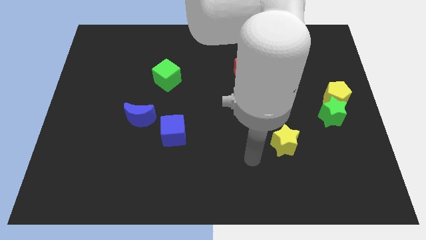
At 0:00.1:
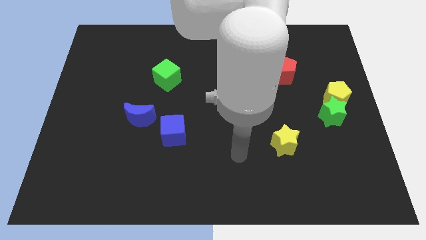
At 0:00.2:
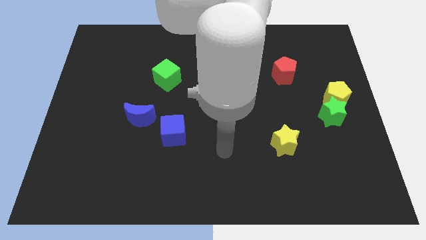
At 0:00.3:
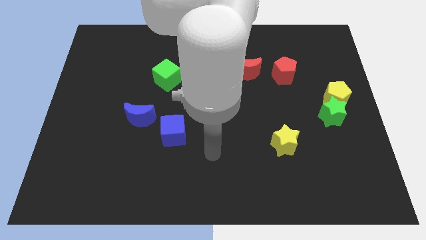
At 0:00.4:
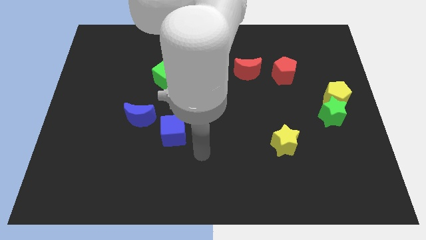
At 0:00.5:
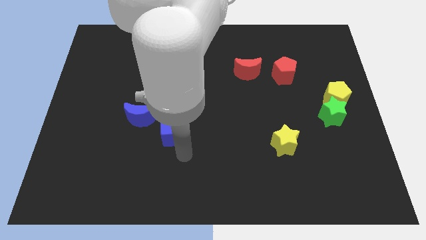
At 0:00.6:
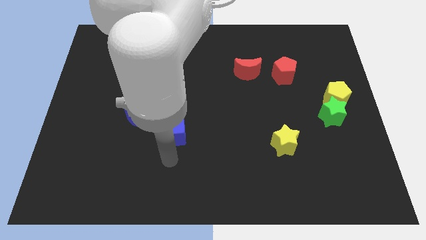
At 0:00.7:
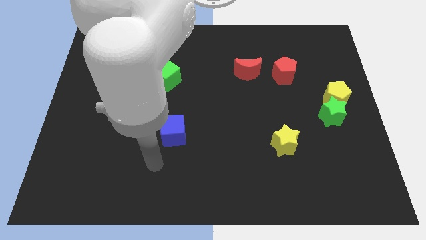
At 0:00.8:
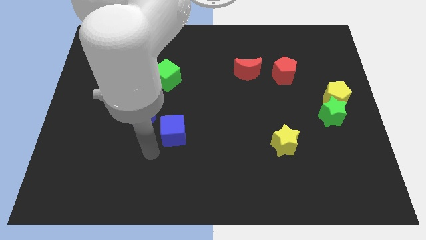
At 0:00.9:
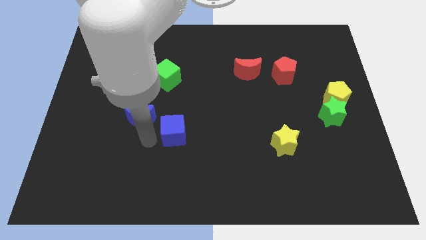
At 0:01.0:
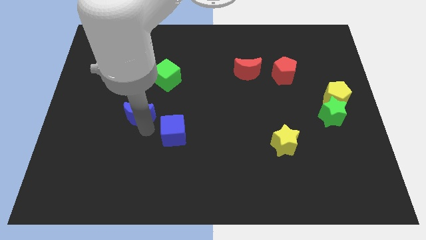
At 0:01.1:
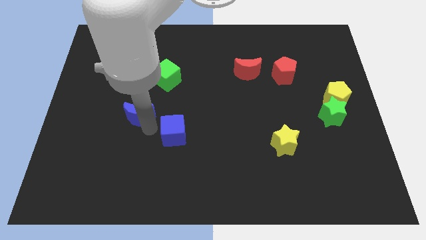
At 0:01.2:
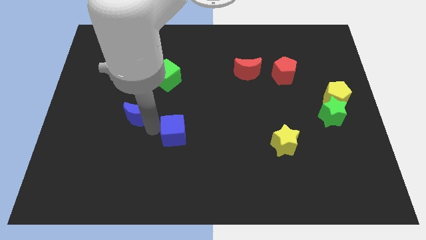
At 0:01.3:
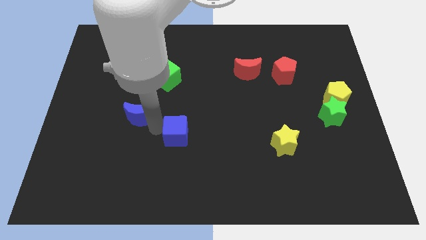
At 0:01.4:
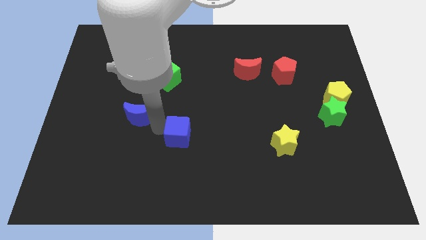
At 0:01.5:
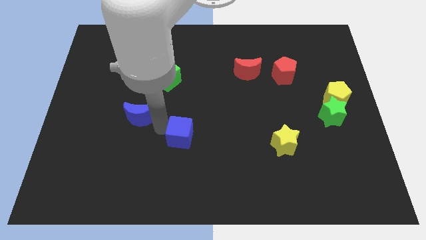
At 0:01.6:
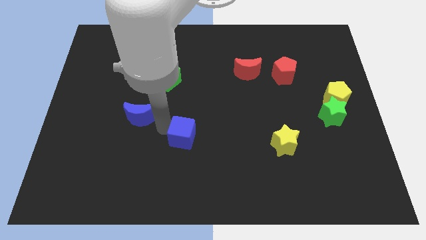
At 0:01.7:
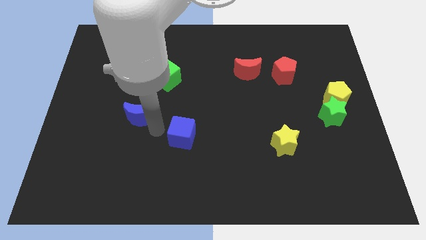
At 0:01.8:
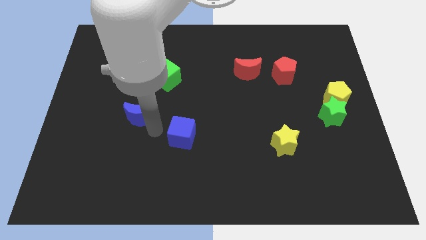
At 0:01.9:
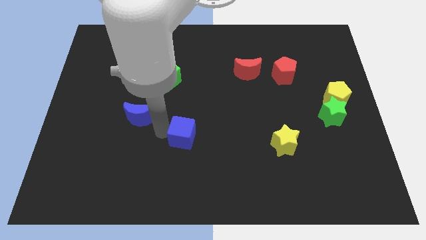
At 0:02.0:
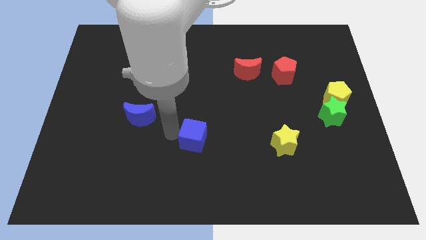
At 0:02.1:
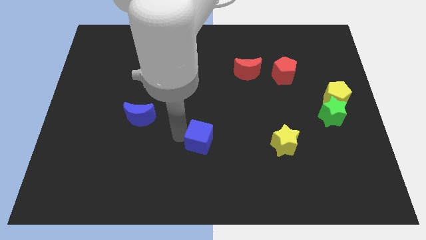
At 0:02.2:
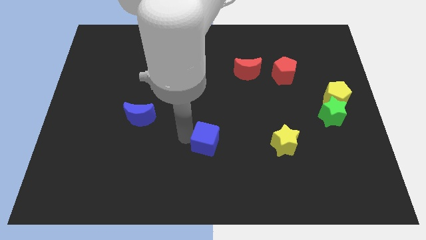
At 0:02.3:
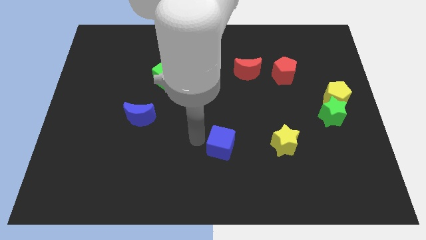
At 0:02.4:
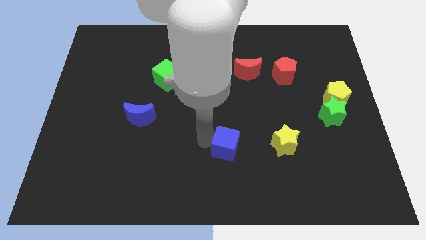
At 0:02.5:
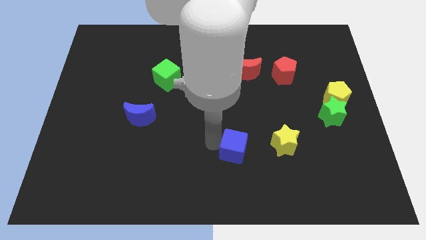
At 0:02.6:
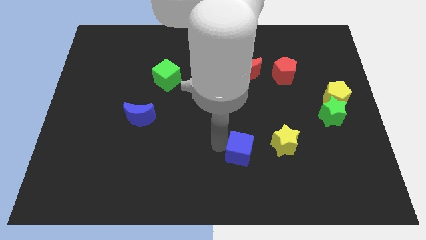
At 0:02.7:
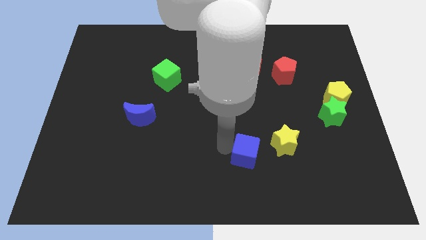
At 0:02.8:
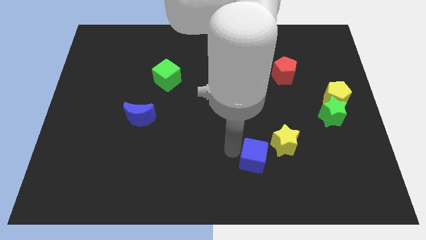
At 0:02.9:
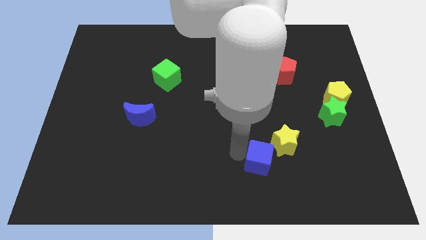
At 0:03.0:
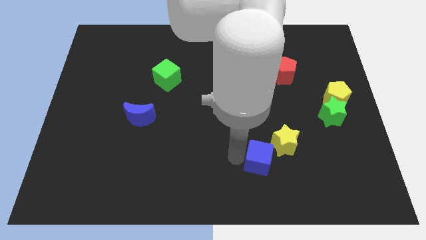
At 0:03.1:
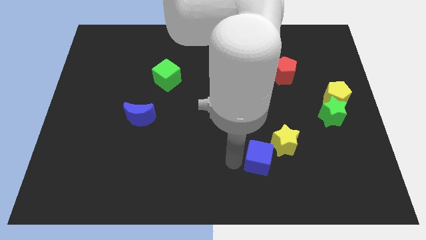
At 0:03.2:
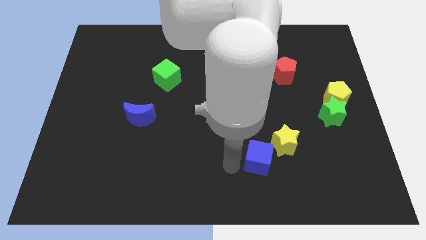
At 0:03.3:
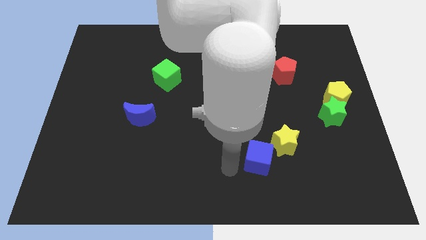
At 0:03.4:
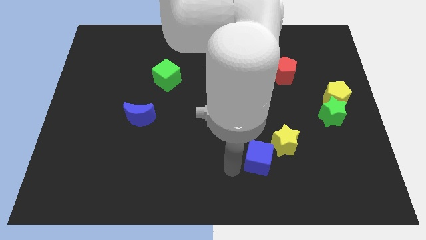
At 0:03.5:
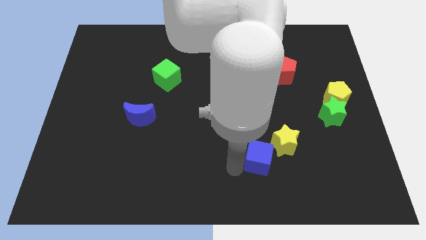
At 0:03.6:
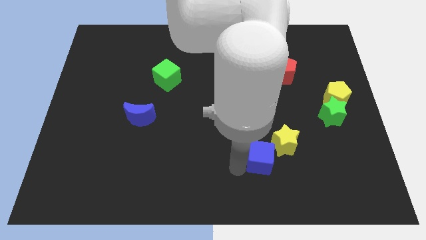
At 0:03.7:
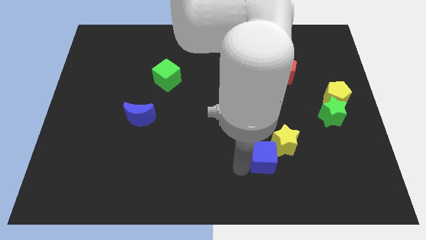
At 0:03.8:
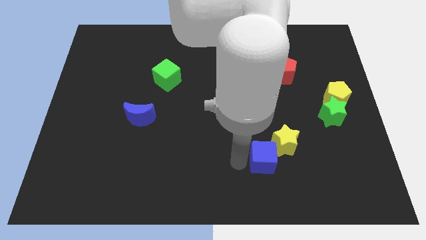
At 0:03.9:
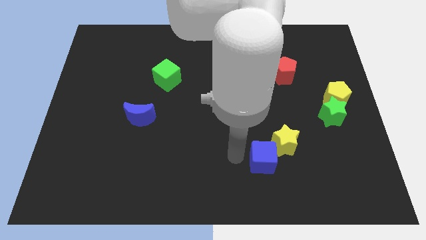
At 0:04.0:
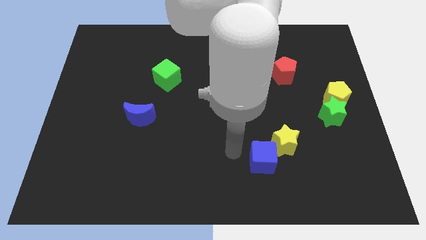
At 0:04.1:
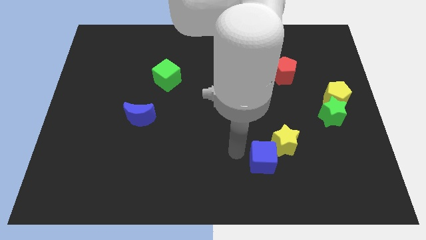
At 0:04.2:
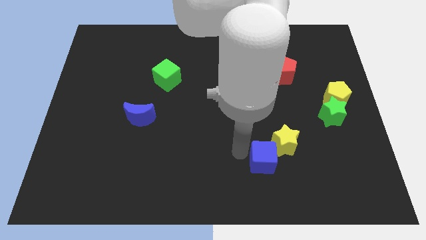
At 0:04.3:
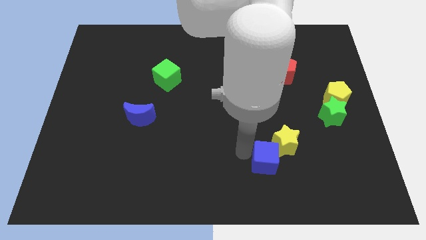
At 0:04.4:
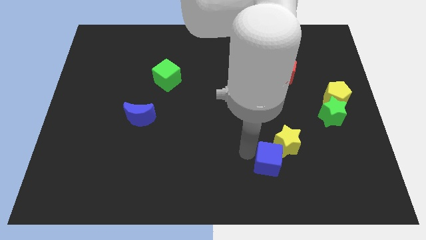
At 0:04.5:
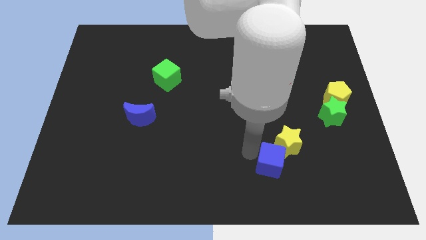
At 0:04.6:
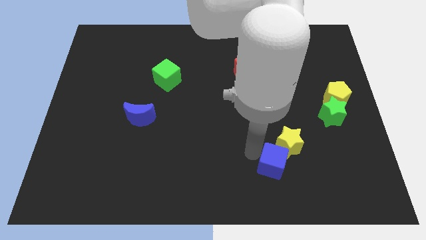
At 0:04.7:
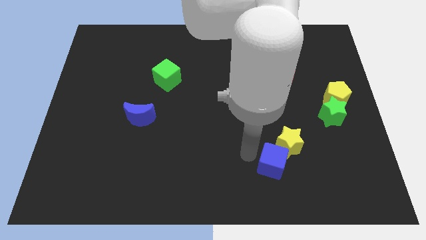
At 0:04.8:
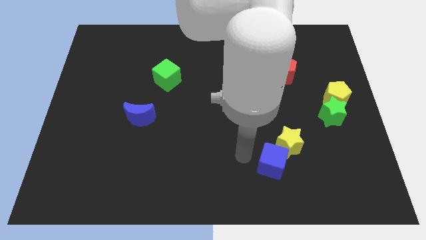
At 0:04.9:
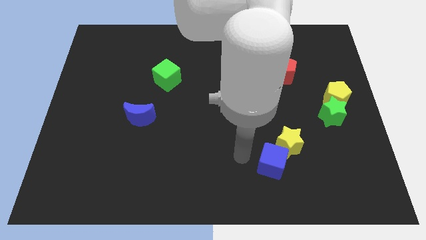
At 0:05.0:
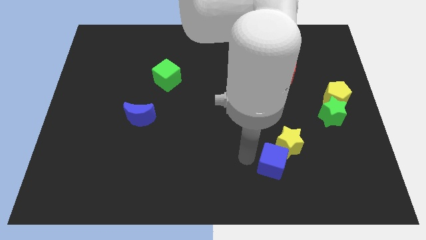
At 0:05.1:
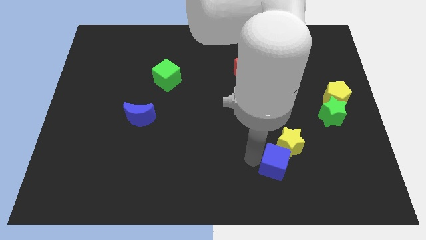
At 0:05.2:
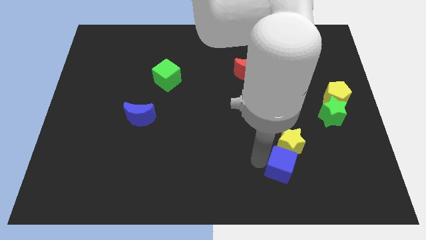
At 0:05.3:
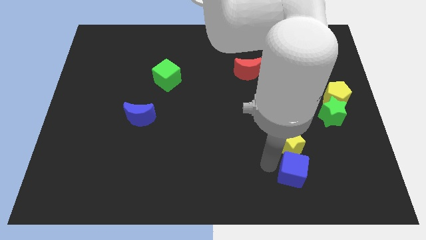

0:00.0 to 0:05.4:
push the blue cube to the bottom right of the yellow star

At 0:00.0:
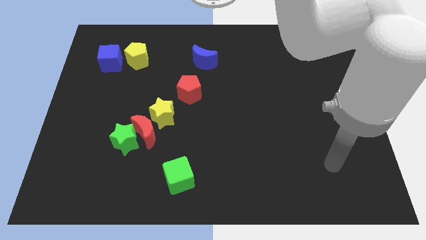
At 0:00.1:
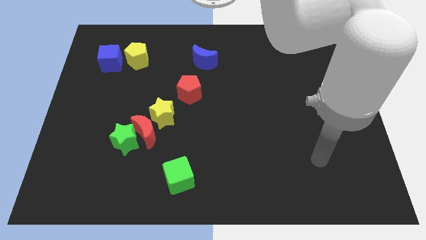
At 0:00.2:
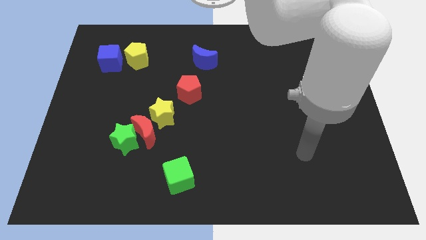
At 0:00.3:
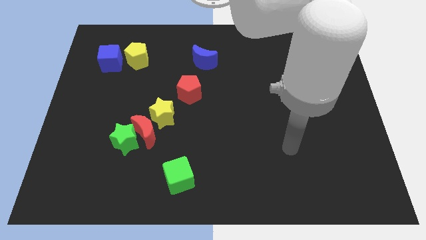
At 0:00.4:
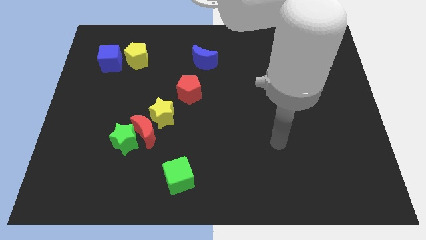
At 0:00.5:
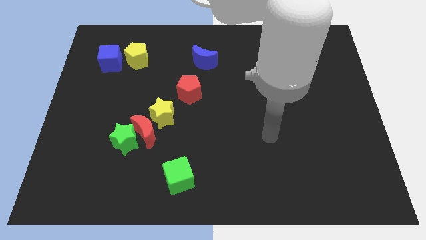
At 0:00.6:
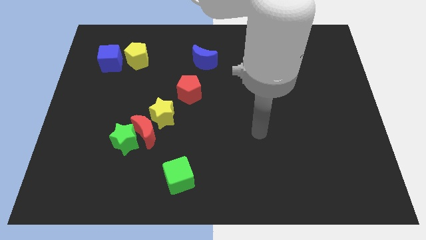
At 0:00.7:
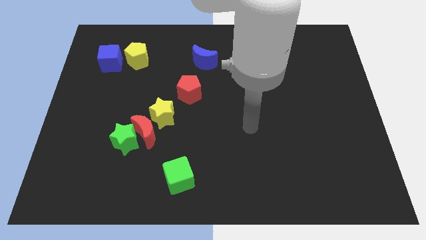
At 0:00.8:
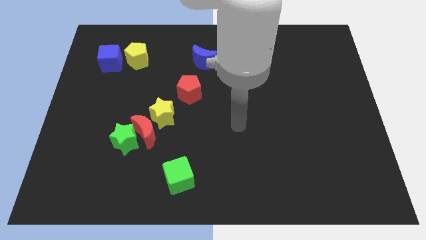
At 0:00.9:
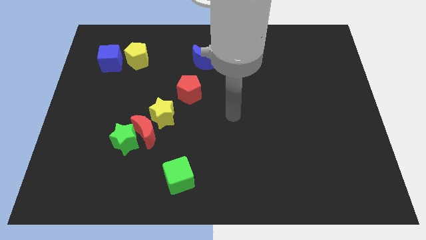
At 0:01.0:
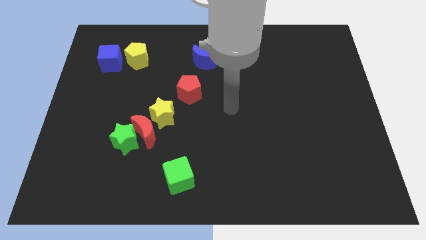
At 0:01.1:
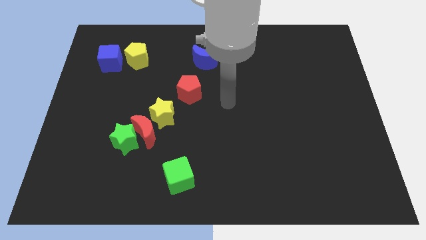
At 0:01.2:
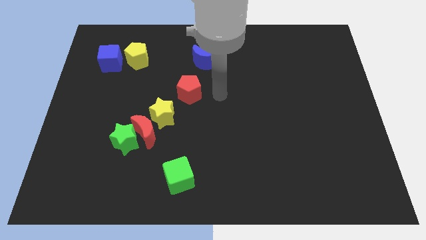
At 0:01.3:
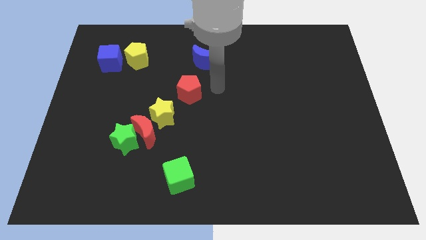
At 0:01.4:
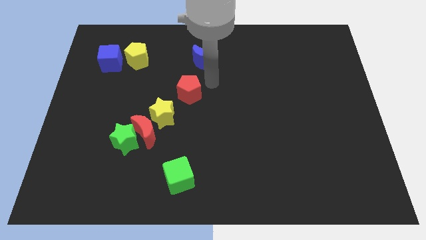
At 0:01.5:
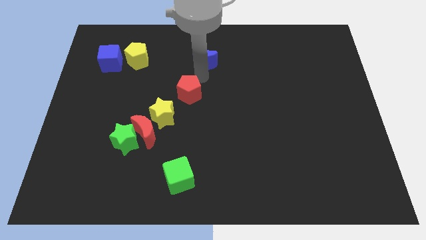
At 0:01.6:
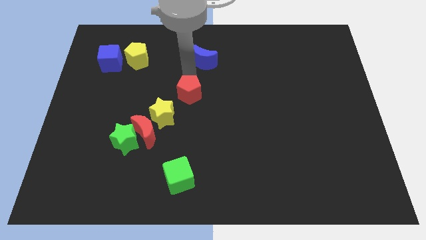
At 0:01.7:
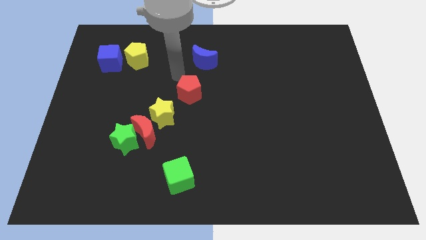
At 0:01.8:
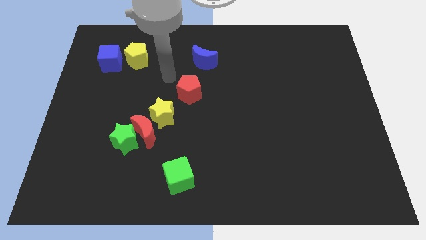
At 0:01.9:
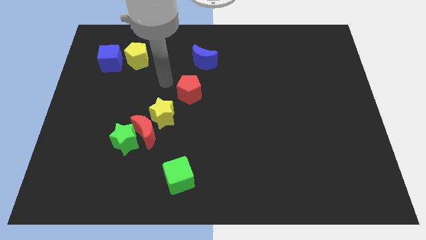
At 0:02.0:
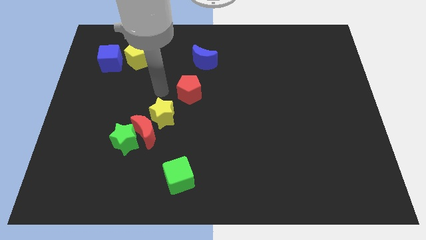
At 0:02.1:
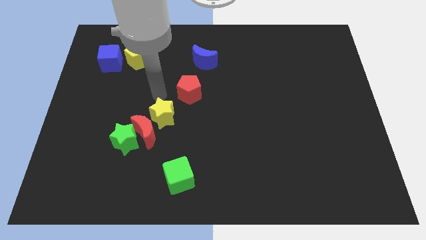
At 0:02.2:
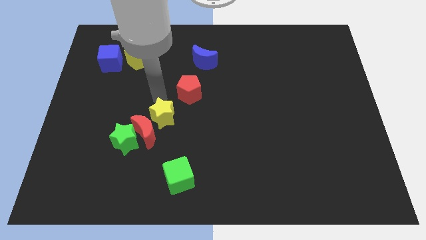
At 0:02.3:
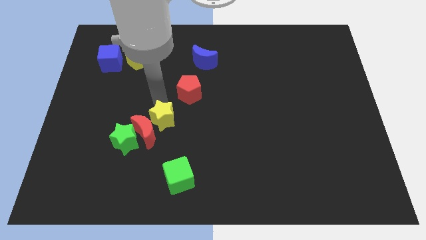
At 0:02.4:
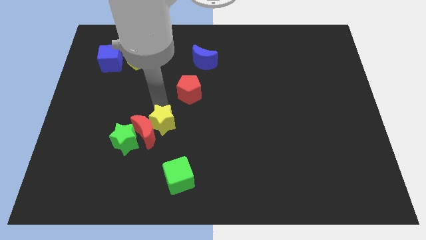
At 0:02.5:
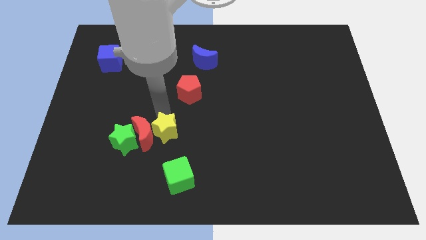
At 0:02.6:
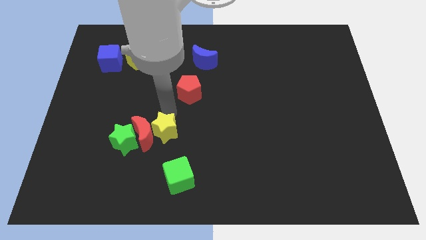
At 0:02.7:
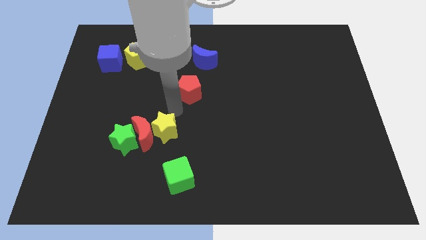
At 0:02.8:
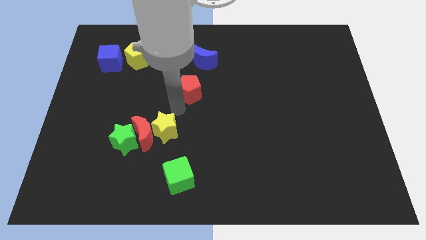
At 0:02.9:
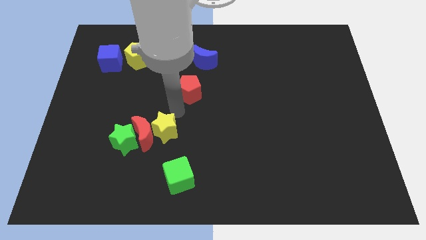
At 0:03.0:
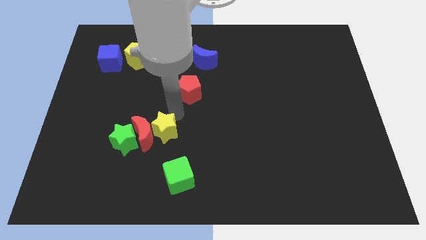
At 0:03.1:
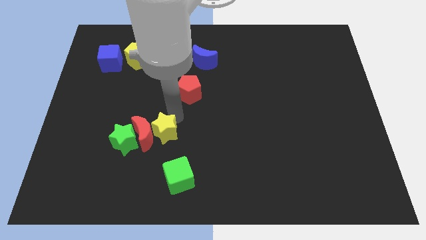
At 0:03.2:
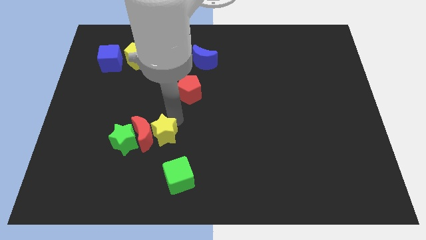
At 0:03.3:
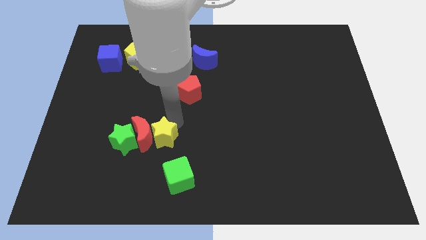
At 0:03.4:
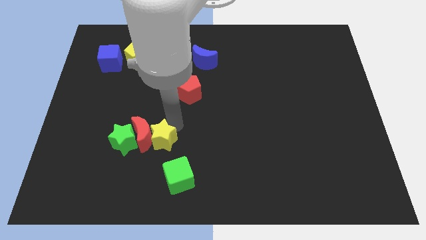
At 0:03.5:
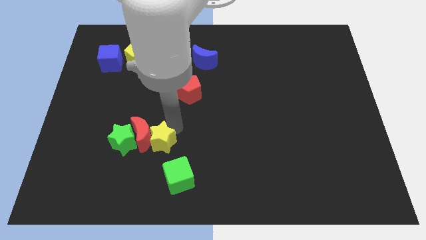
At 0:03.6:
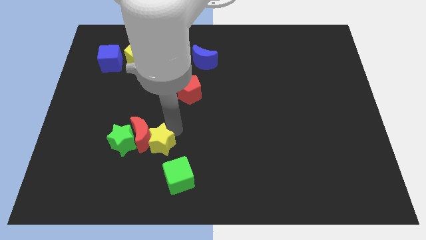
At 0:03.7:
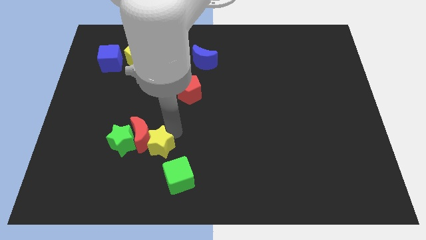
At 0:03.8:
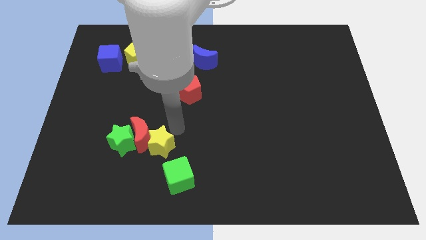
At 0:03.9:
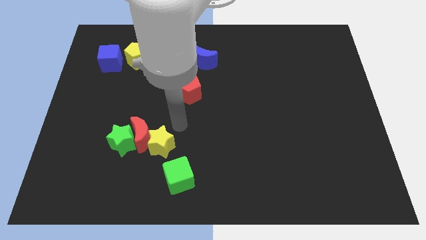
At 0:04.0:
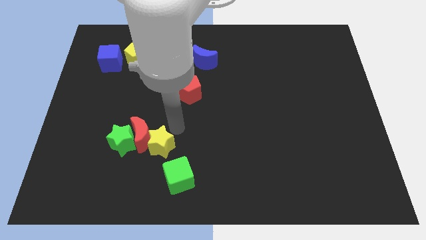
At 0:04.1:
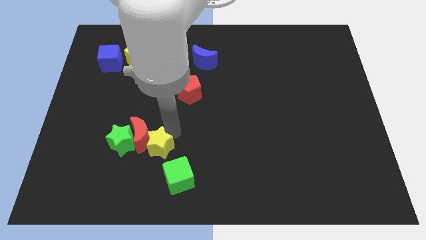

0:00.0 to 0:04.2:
put the yellow star to the bottom side of the red moon
